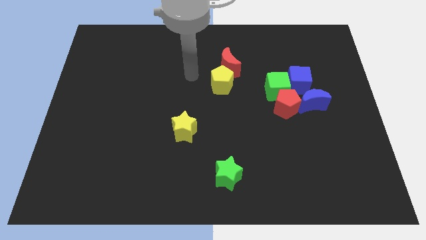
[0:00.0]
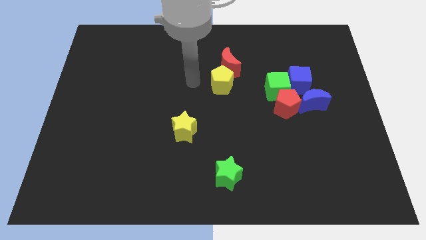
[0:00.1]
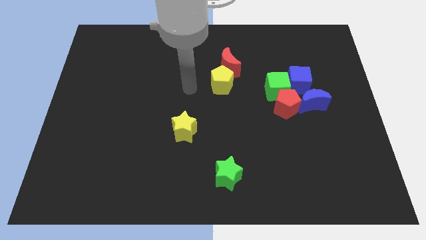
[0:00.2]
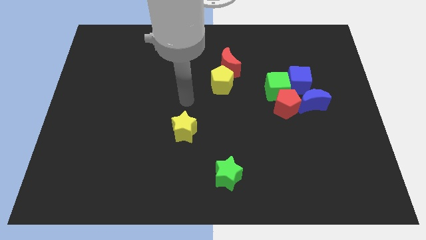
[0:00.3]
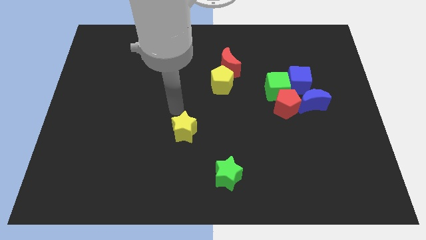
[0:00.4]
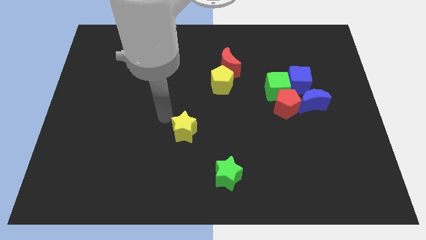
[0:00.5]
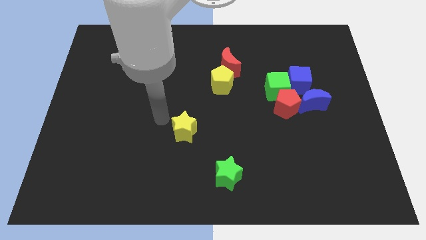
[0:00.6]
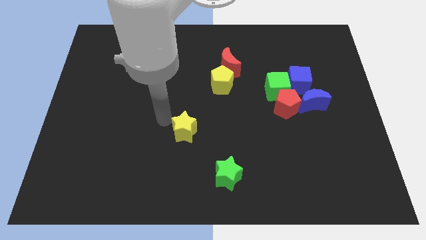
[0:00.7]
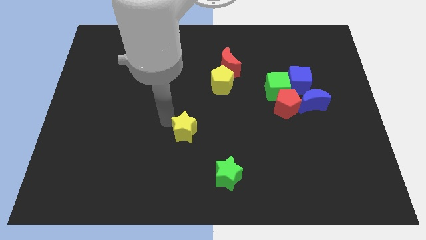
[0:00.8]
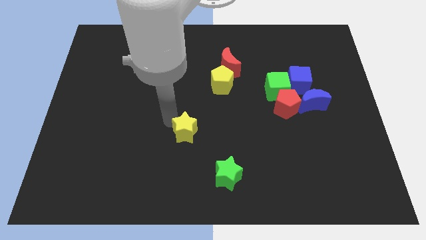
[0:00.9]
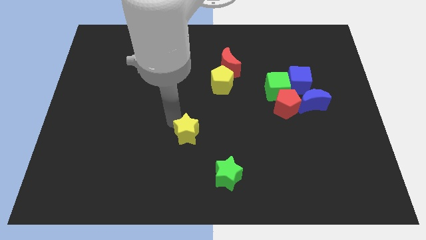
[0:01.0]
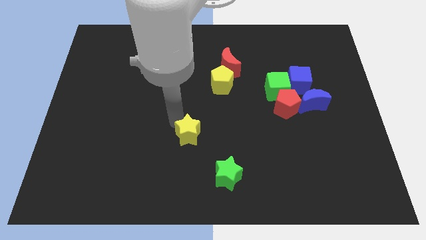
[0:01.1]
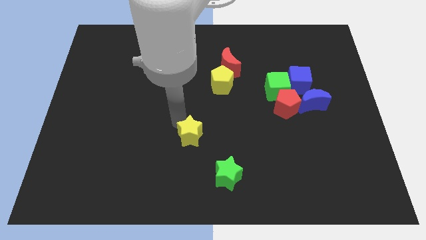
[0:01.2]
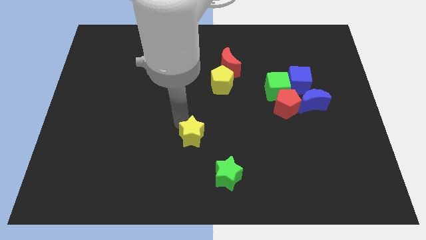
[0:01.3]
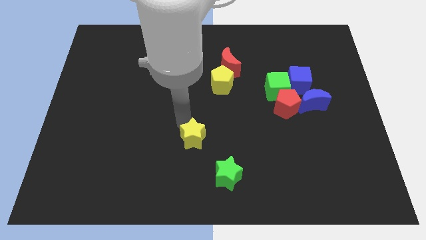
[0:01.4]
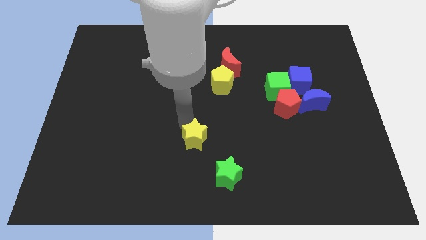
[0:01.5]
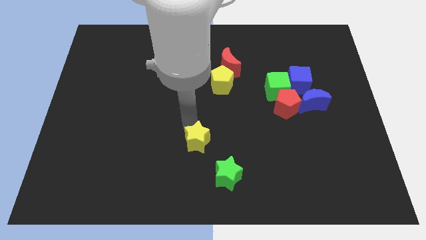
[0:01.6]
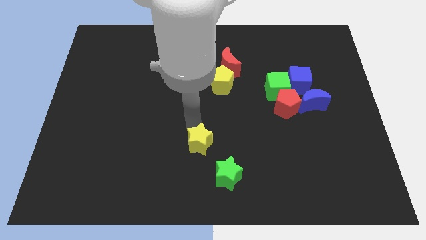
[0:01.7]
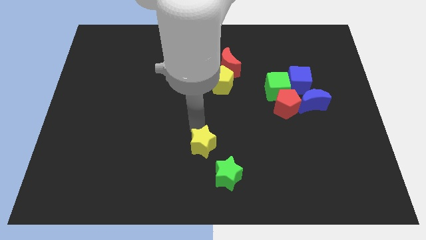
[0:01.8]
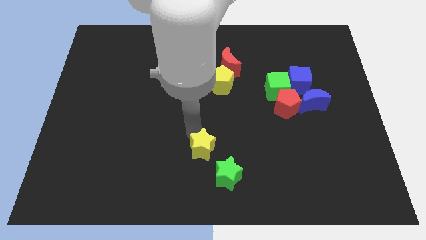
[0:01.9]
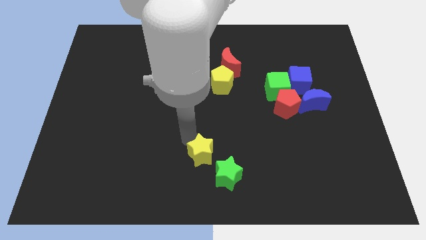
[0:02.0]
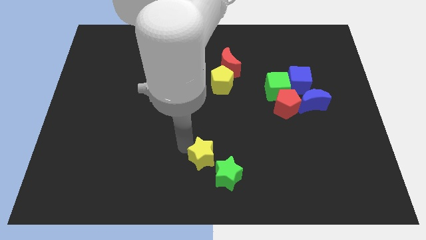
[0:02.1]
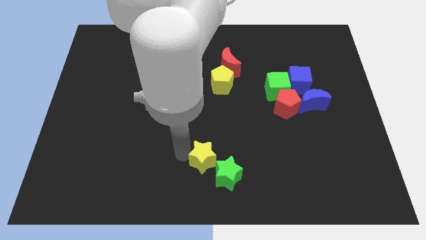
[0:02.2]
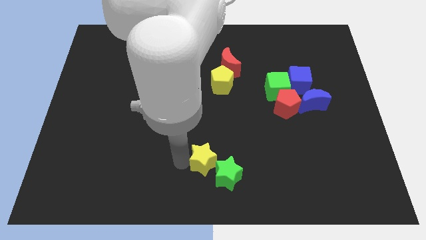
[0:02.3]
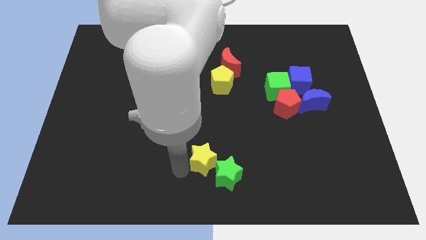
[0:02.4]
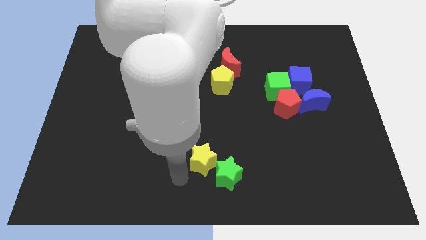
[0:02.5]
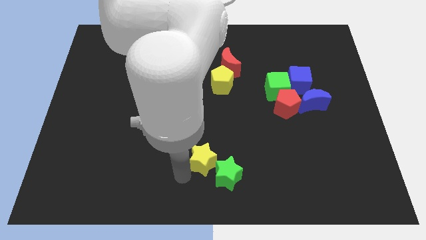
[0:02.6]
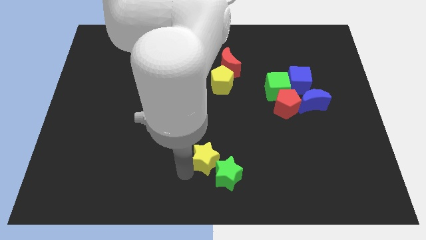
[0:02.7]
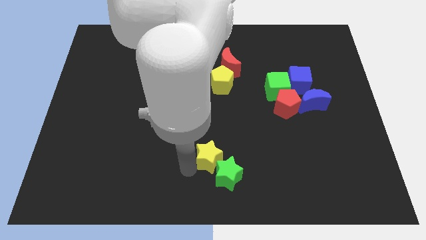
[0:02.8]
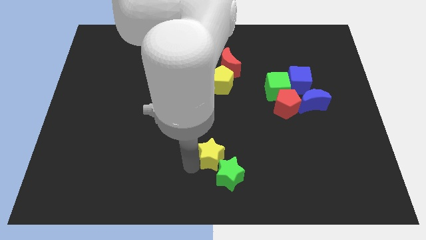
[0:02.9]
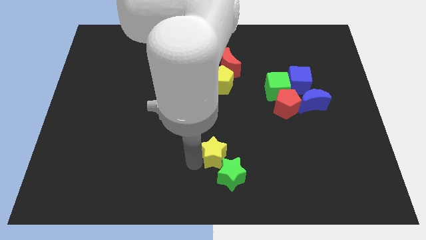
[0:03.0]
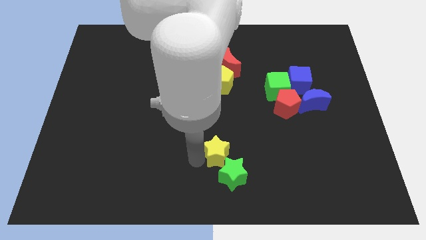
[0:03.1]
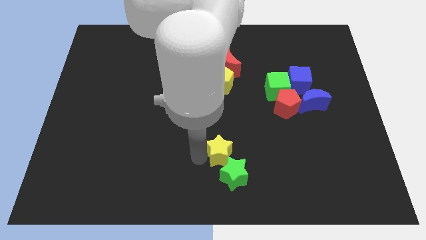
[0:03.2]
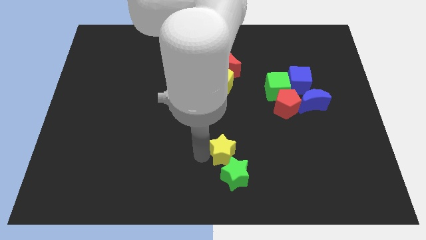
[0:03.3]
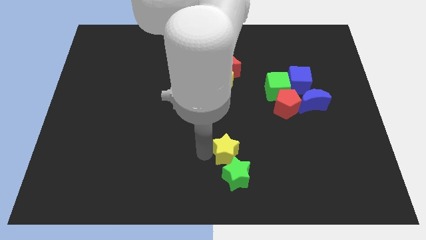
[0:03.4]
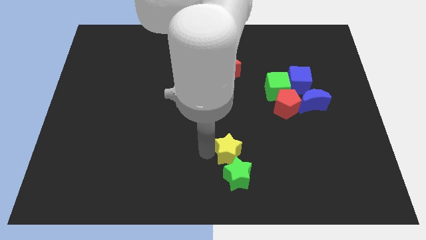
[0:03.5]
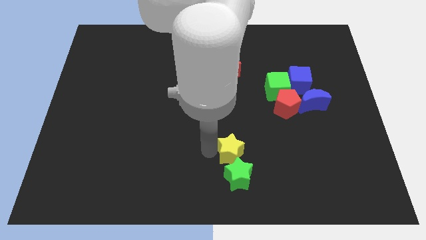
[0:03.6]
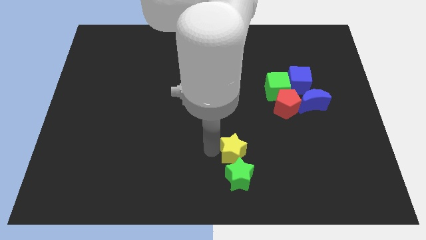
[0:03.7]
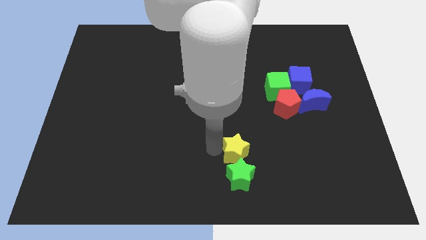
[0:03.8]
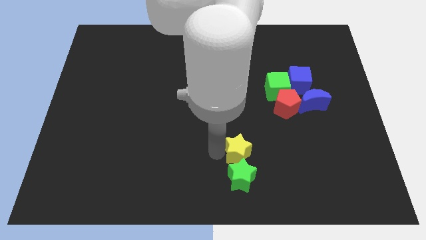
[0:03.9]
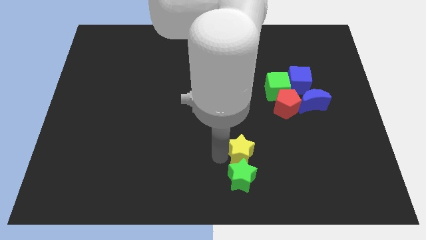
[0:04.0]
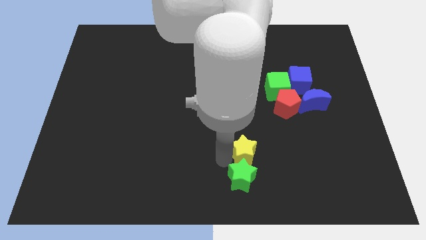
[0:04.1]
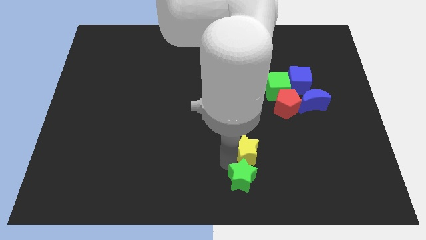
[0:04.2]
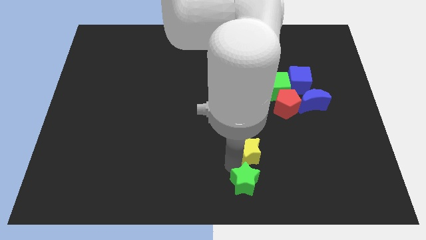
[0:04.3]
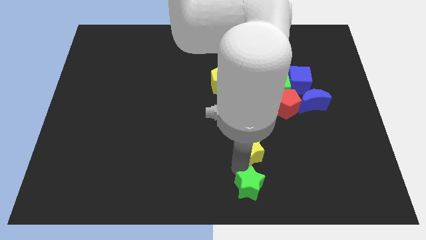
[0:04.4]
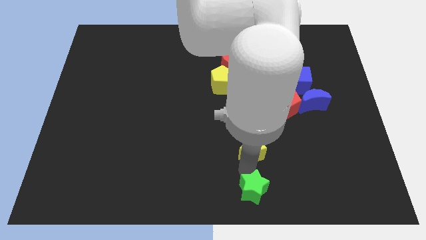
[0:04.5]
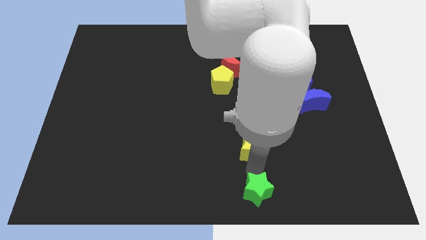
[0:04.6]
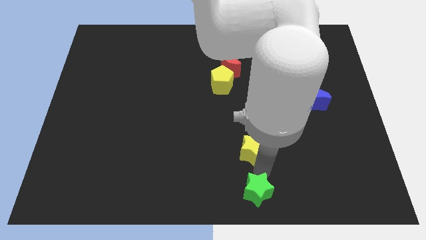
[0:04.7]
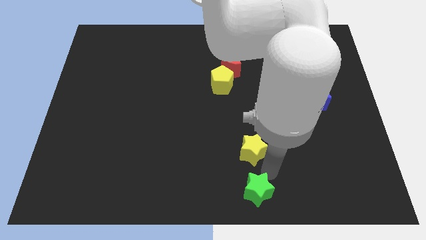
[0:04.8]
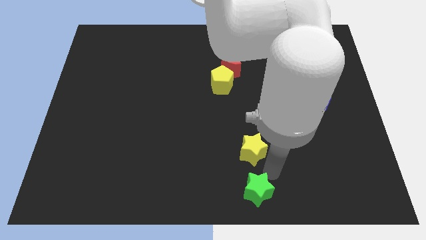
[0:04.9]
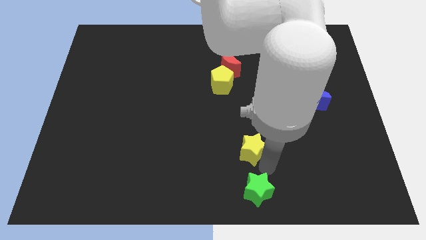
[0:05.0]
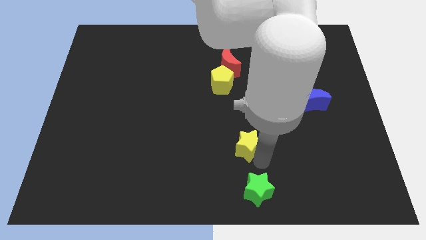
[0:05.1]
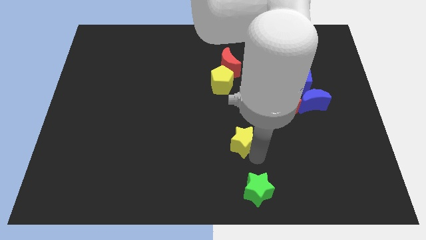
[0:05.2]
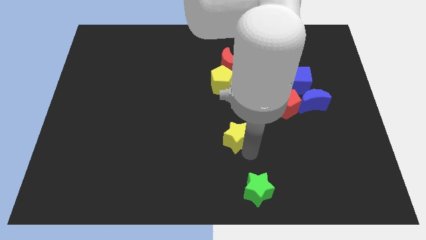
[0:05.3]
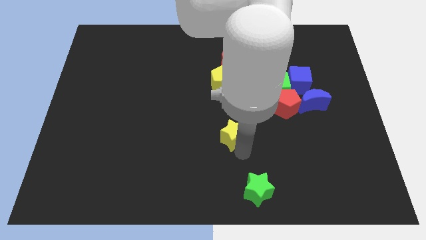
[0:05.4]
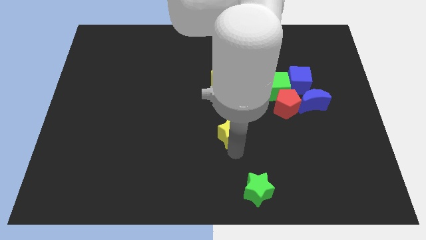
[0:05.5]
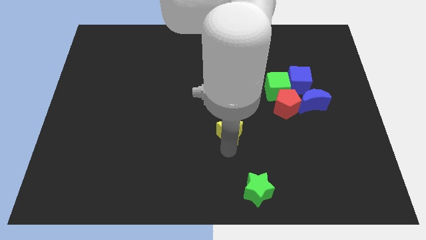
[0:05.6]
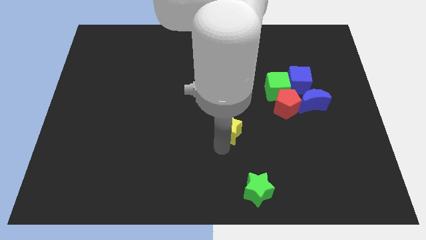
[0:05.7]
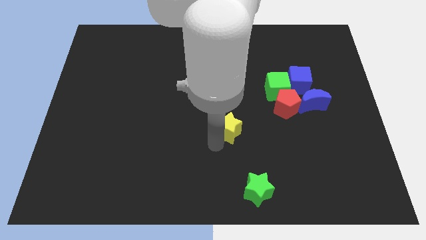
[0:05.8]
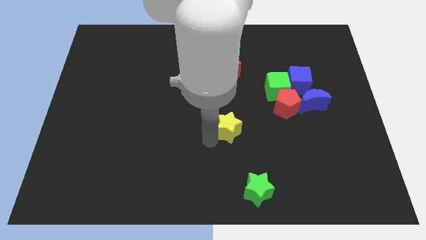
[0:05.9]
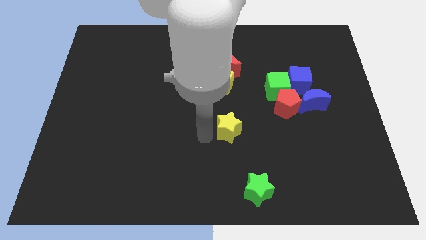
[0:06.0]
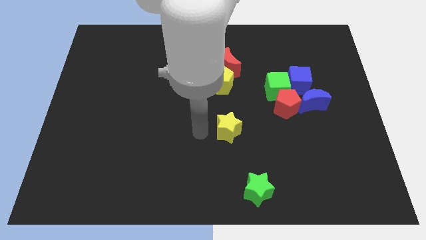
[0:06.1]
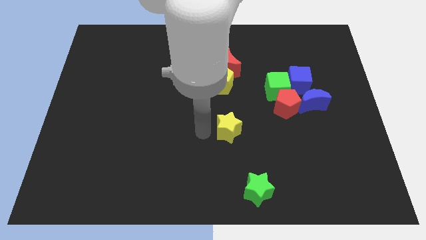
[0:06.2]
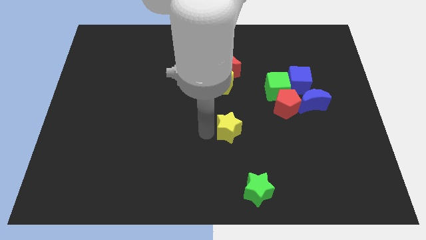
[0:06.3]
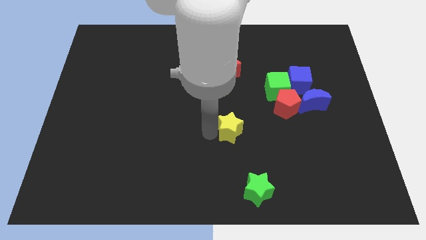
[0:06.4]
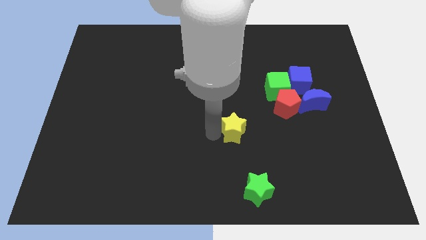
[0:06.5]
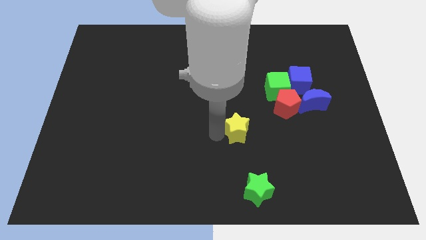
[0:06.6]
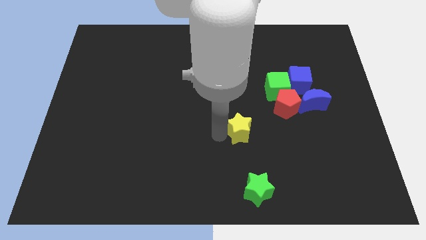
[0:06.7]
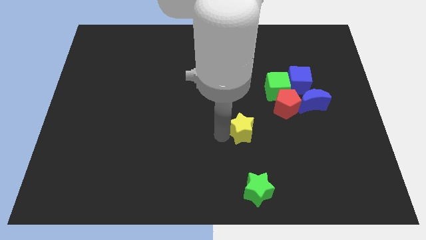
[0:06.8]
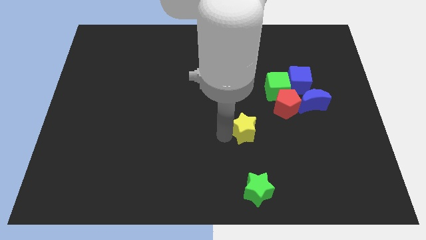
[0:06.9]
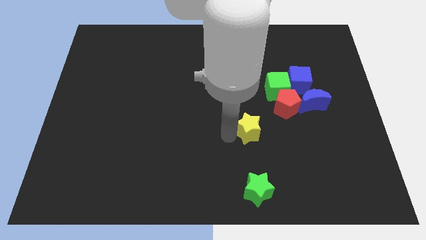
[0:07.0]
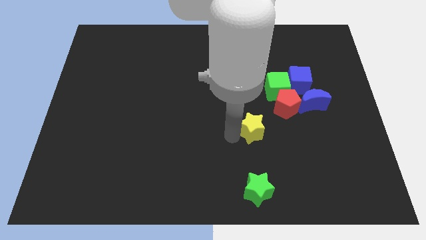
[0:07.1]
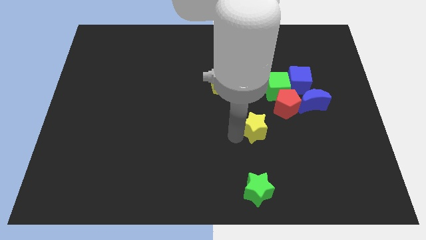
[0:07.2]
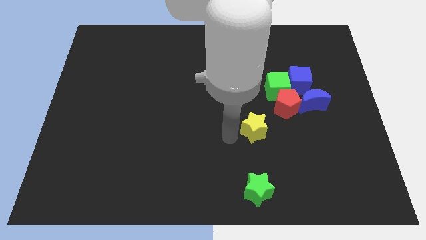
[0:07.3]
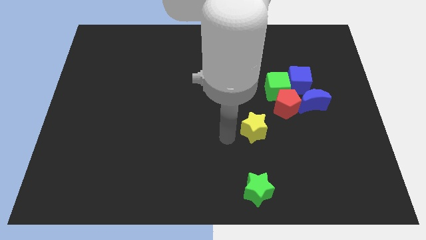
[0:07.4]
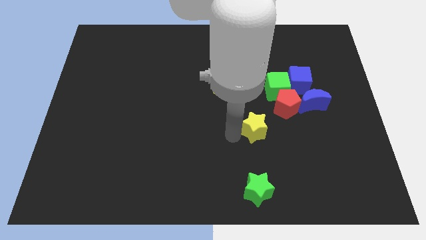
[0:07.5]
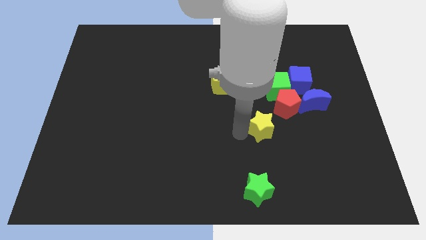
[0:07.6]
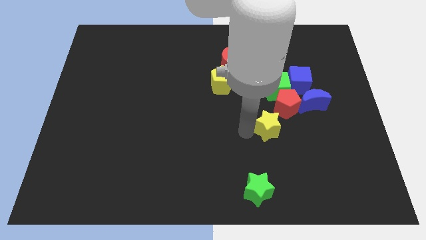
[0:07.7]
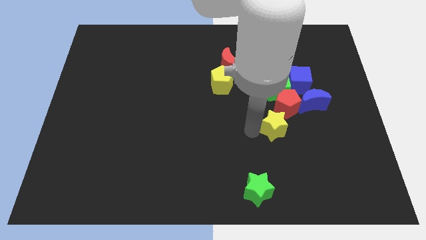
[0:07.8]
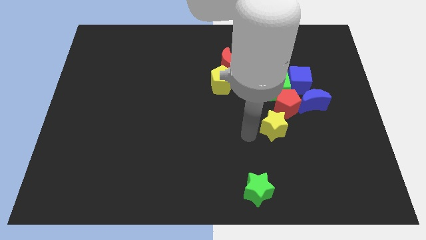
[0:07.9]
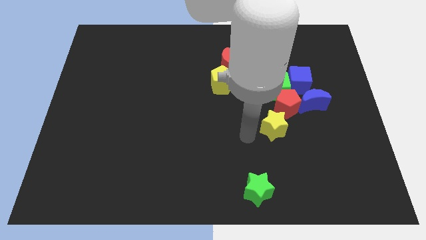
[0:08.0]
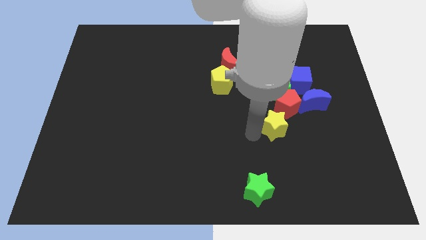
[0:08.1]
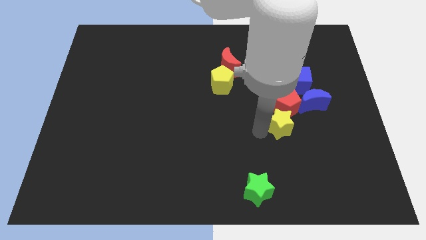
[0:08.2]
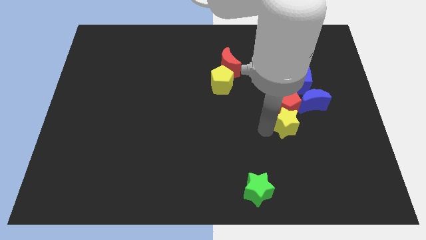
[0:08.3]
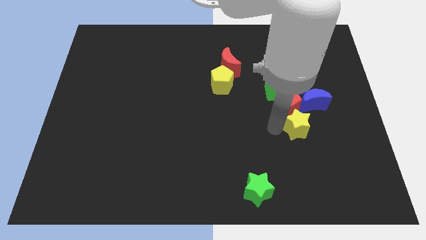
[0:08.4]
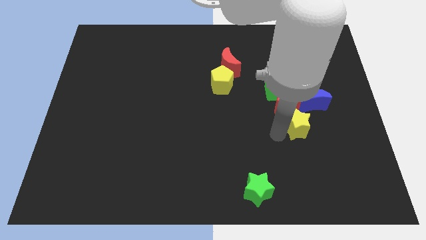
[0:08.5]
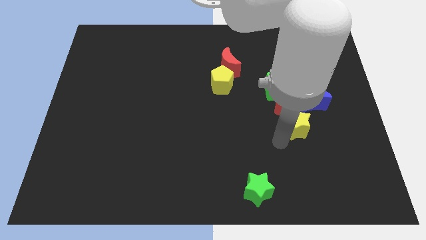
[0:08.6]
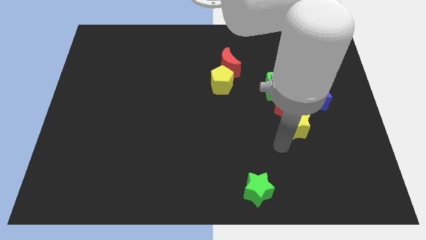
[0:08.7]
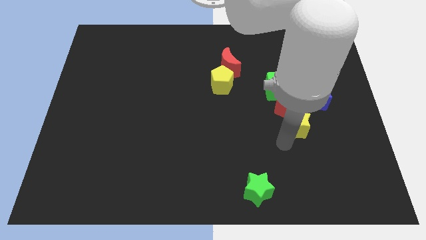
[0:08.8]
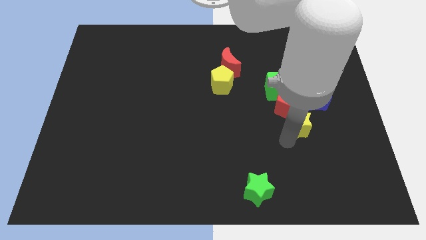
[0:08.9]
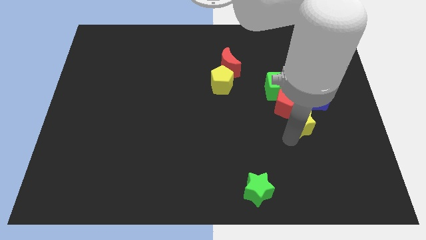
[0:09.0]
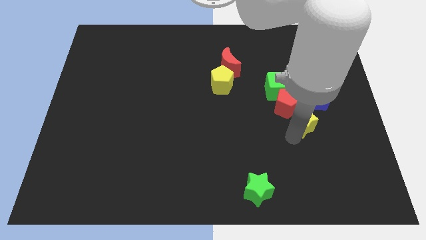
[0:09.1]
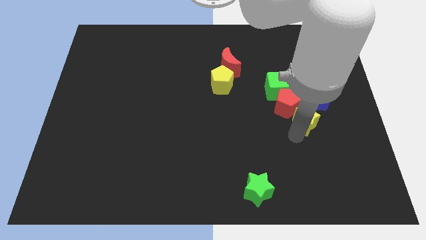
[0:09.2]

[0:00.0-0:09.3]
move the yellow star towards the blue moon
